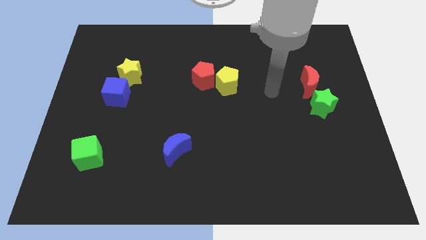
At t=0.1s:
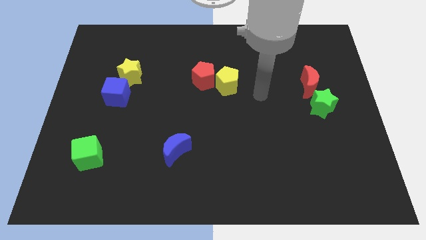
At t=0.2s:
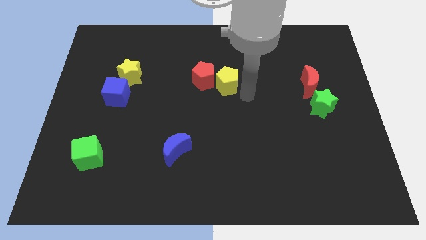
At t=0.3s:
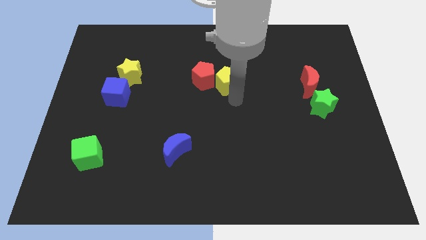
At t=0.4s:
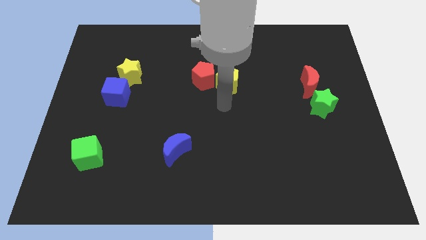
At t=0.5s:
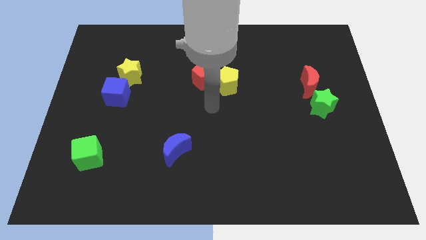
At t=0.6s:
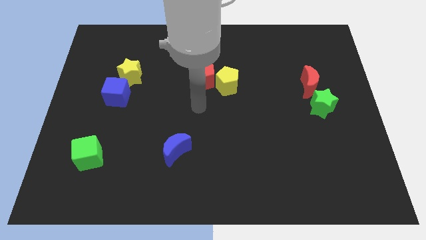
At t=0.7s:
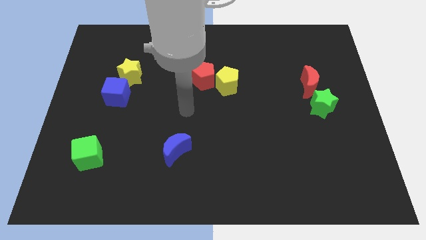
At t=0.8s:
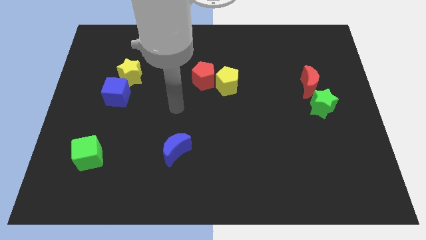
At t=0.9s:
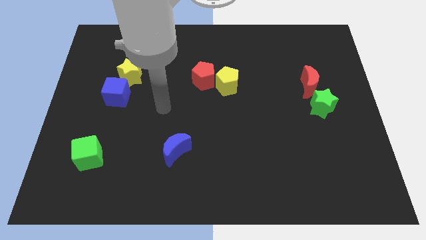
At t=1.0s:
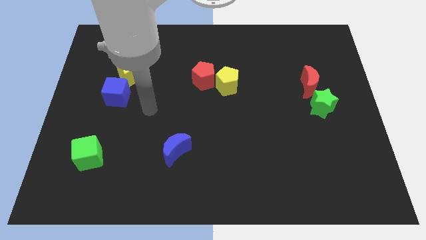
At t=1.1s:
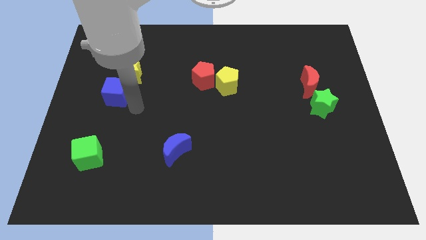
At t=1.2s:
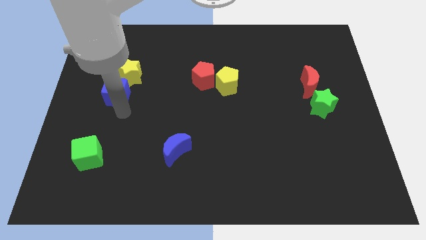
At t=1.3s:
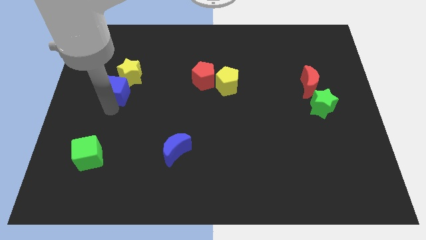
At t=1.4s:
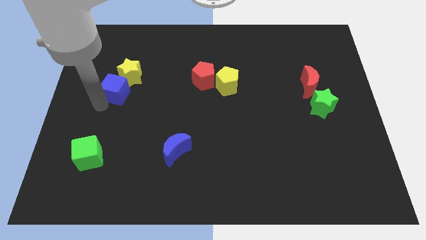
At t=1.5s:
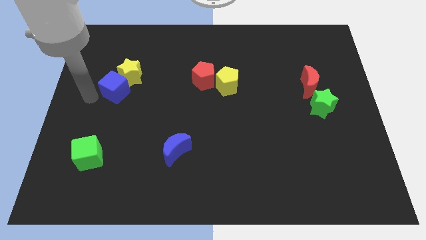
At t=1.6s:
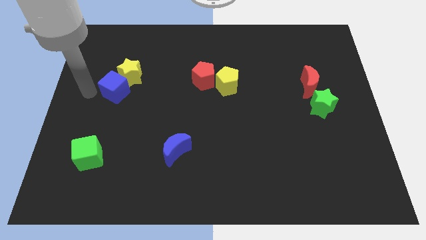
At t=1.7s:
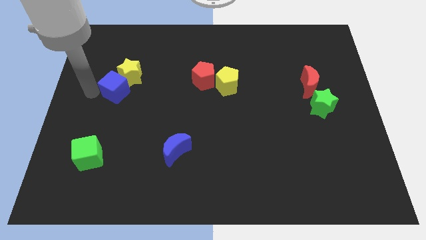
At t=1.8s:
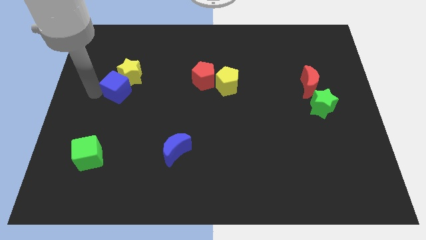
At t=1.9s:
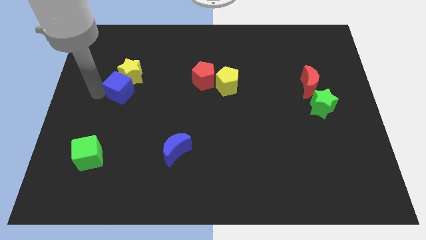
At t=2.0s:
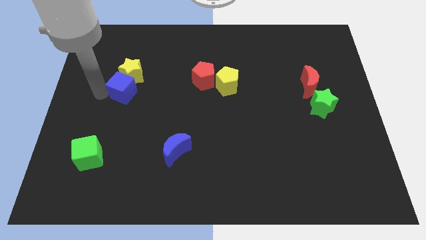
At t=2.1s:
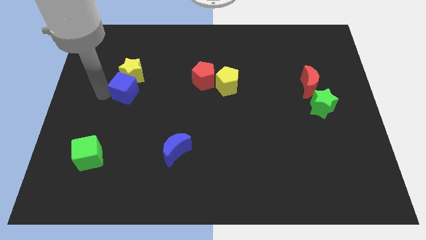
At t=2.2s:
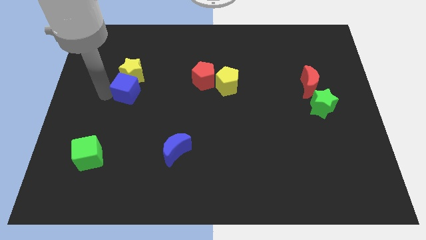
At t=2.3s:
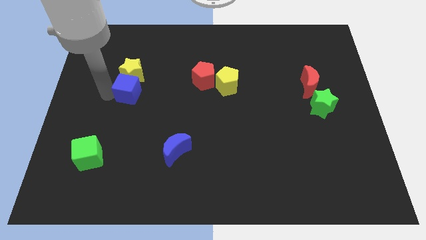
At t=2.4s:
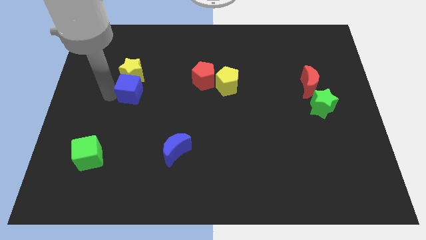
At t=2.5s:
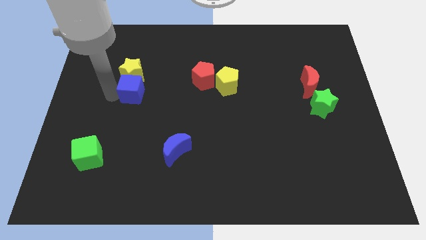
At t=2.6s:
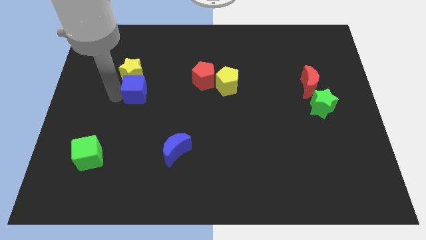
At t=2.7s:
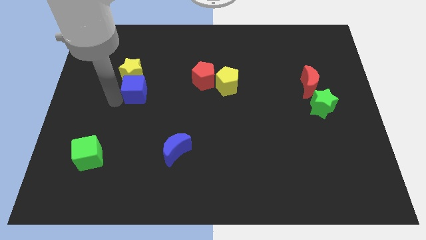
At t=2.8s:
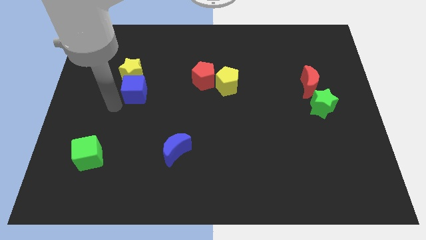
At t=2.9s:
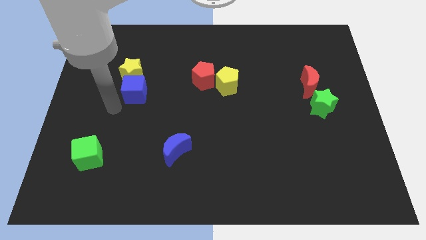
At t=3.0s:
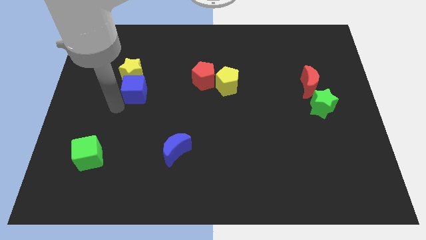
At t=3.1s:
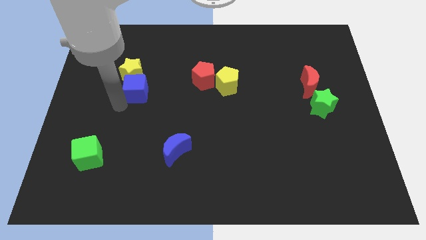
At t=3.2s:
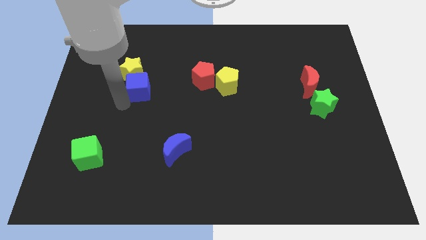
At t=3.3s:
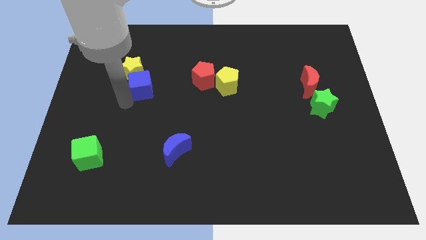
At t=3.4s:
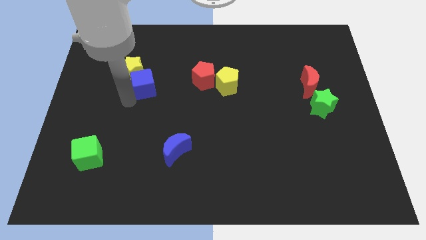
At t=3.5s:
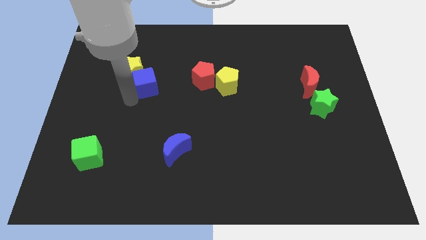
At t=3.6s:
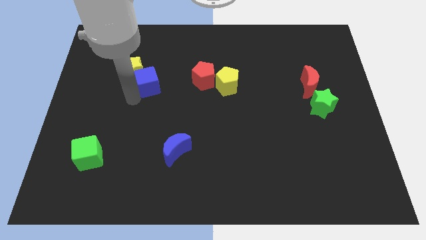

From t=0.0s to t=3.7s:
push the blue cube a bit upwards and right

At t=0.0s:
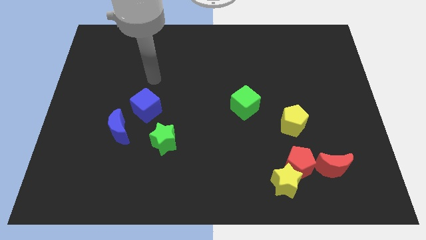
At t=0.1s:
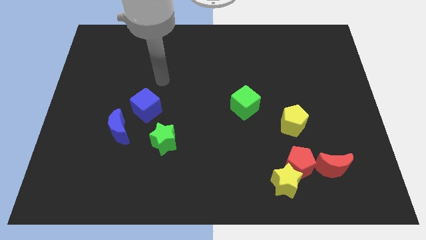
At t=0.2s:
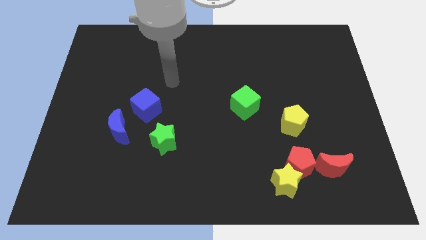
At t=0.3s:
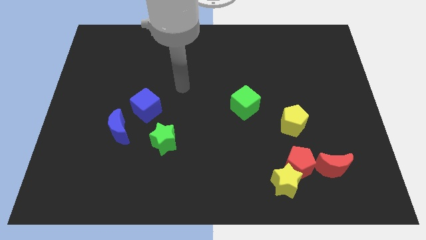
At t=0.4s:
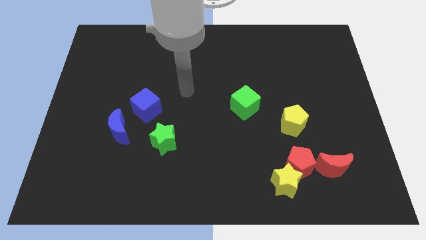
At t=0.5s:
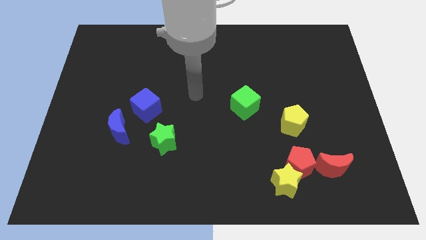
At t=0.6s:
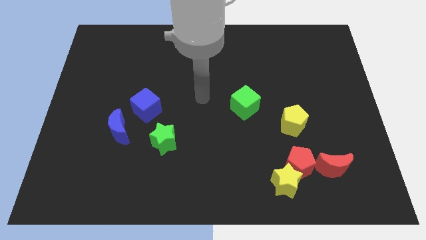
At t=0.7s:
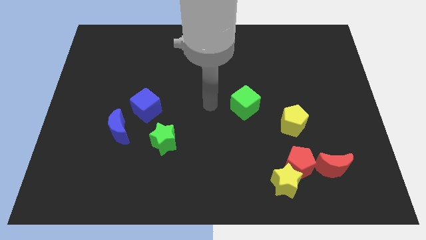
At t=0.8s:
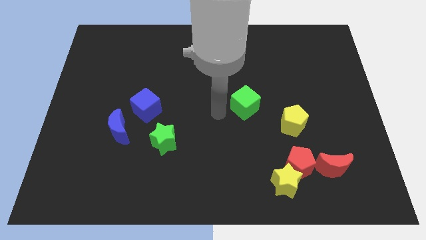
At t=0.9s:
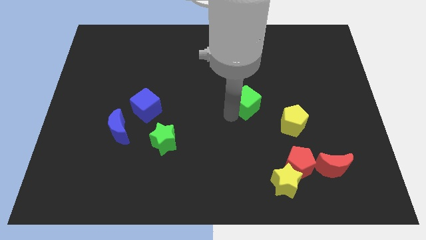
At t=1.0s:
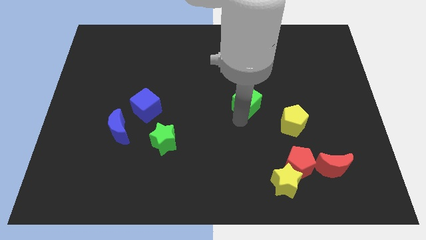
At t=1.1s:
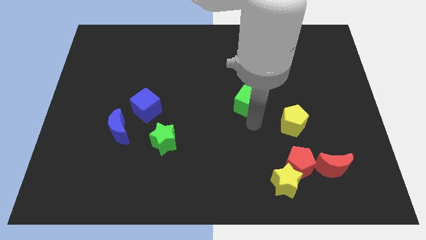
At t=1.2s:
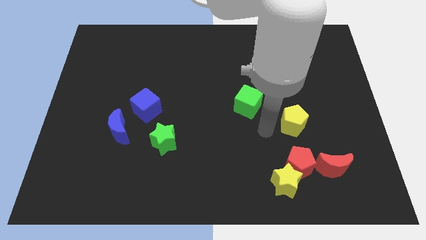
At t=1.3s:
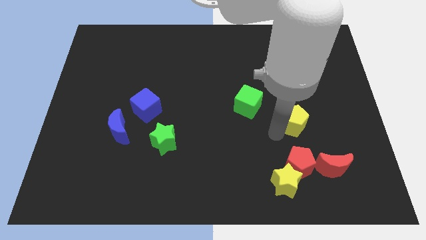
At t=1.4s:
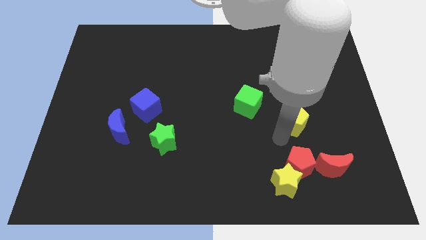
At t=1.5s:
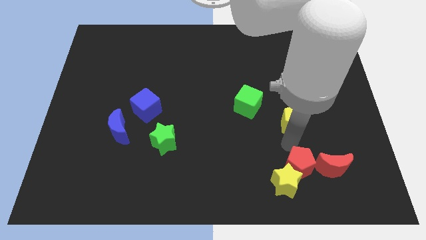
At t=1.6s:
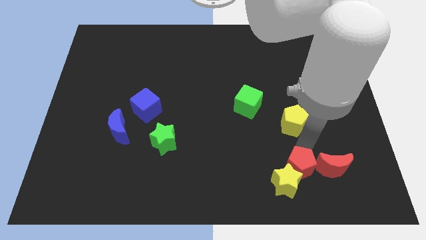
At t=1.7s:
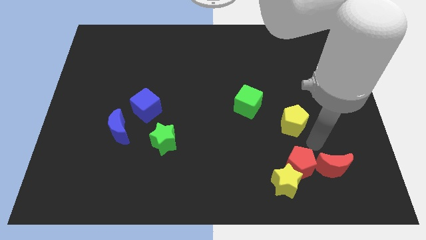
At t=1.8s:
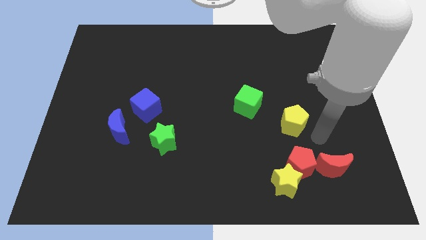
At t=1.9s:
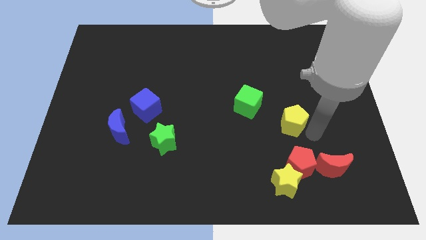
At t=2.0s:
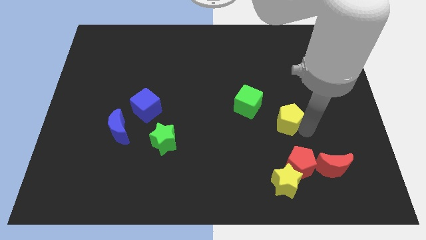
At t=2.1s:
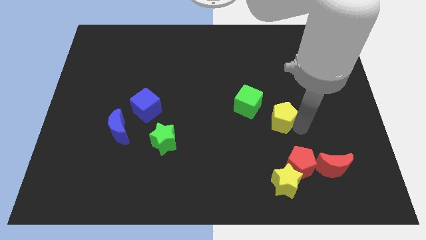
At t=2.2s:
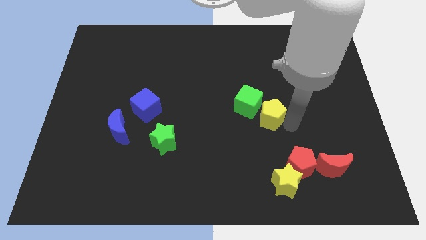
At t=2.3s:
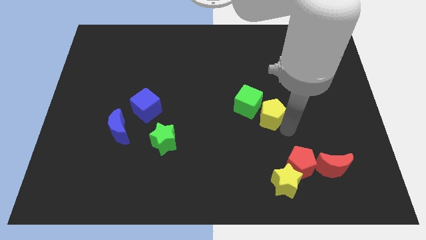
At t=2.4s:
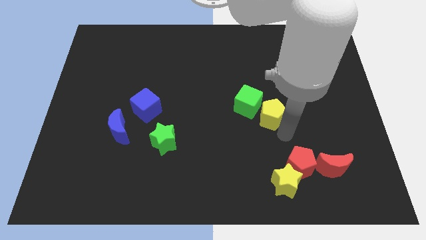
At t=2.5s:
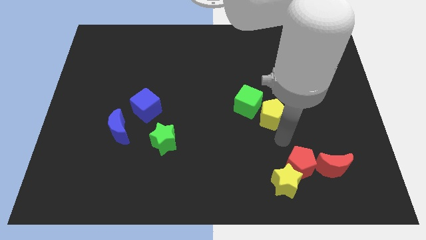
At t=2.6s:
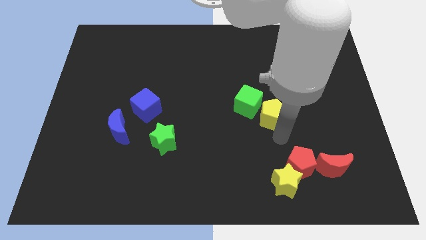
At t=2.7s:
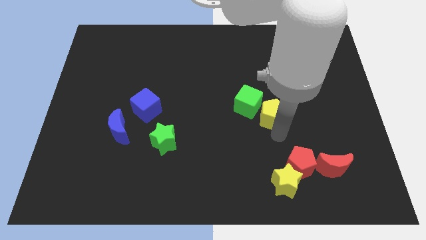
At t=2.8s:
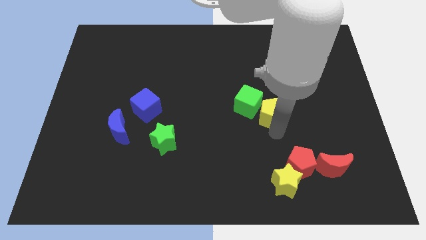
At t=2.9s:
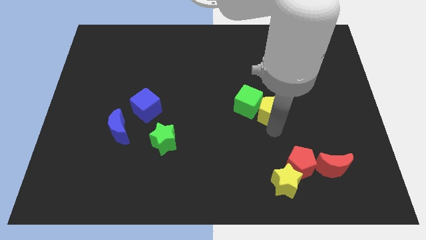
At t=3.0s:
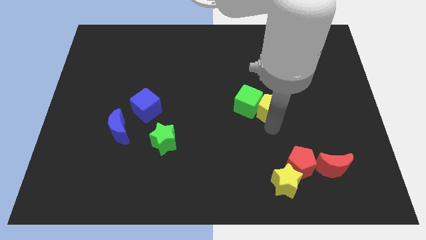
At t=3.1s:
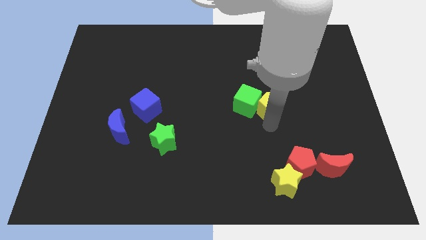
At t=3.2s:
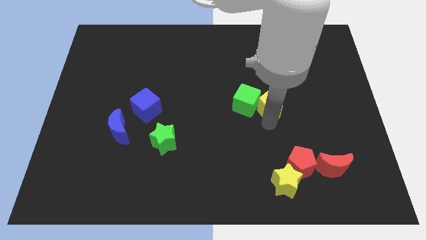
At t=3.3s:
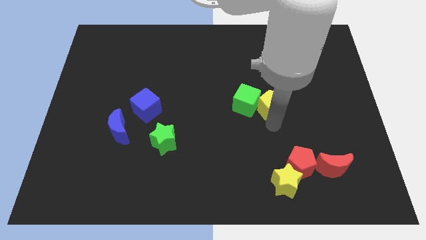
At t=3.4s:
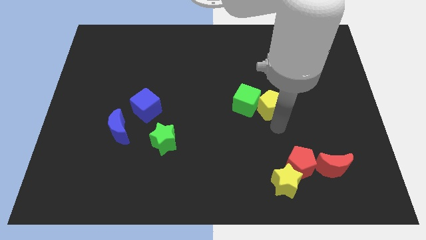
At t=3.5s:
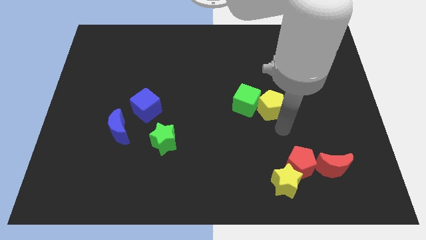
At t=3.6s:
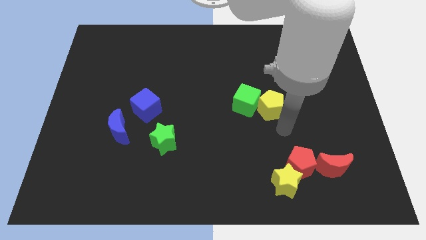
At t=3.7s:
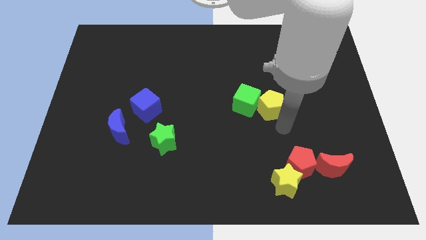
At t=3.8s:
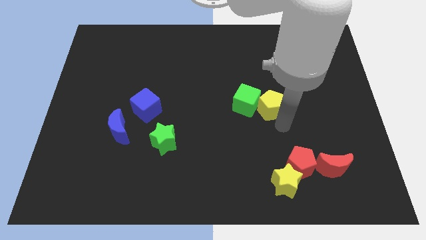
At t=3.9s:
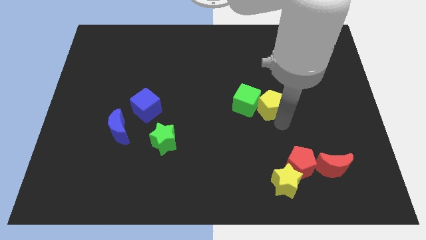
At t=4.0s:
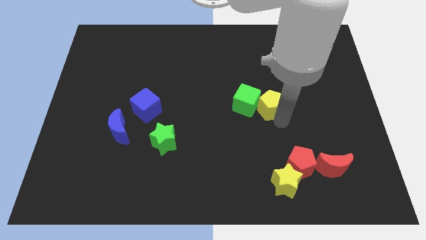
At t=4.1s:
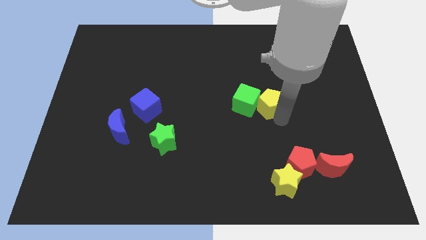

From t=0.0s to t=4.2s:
slightly push the yellow pentagon up and left
